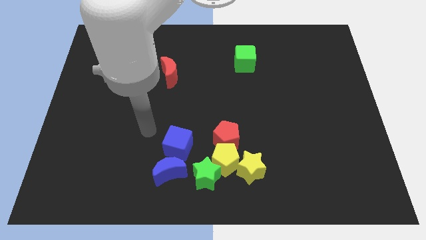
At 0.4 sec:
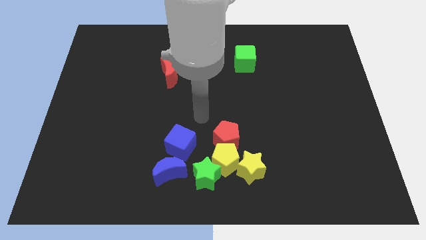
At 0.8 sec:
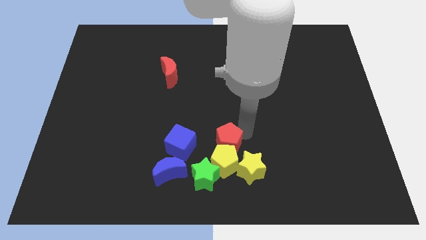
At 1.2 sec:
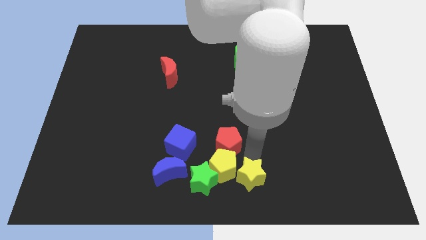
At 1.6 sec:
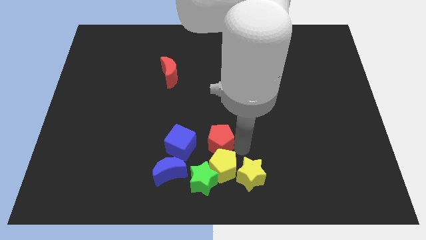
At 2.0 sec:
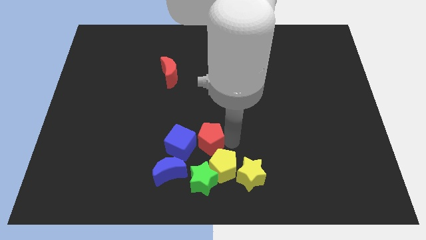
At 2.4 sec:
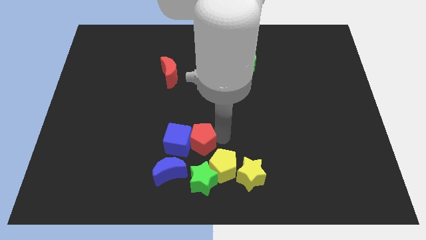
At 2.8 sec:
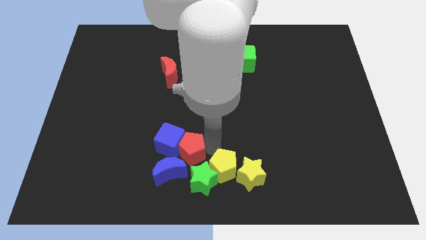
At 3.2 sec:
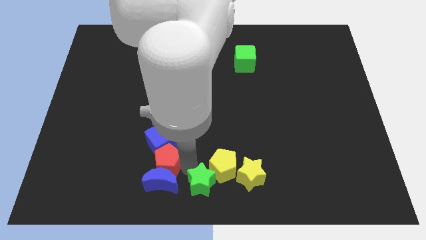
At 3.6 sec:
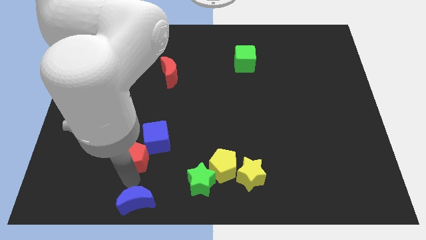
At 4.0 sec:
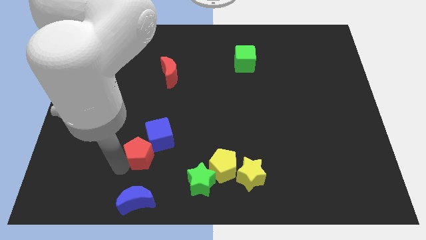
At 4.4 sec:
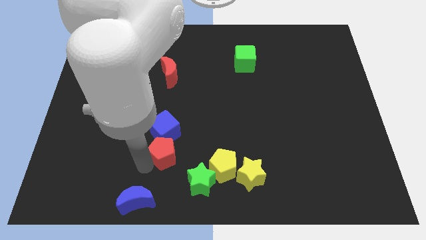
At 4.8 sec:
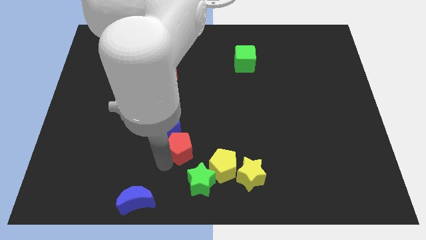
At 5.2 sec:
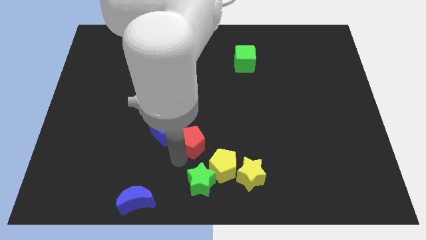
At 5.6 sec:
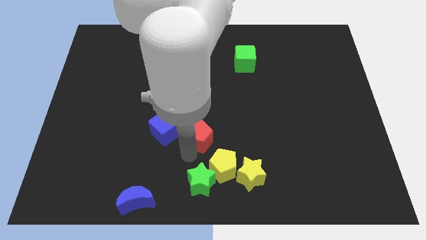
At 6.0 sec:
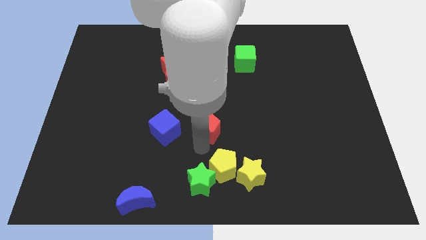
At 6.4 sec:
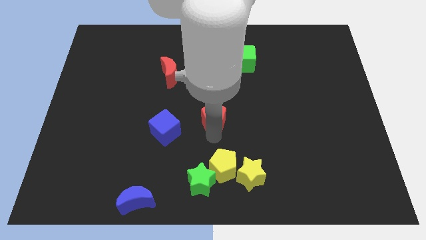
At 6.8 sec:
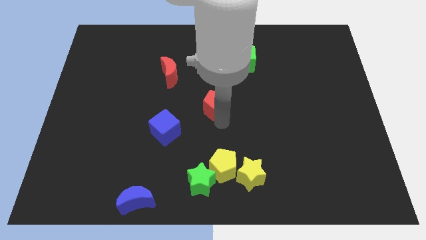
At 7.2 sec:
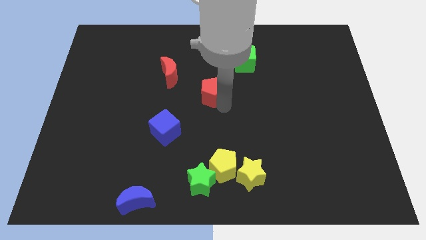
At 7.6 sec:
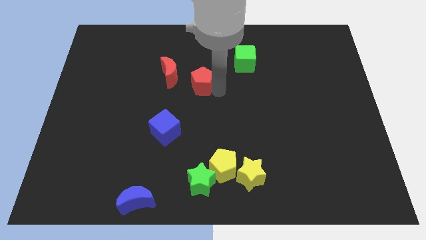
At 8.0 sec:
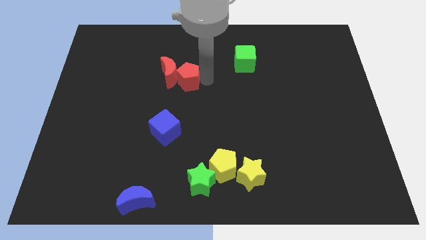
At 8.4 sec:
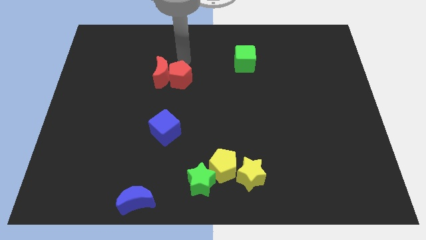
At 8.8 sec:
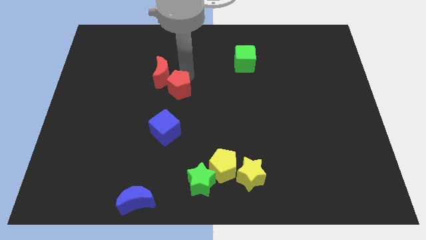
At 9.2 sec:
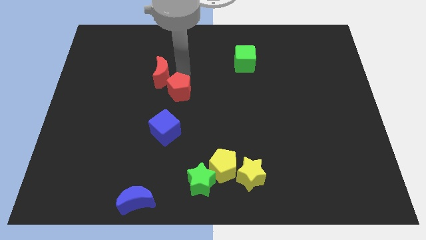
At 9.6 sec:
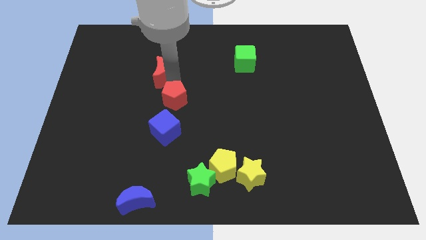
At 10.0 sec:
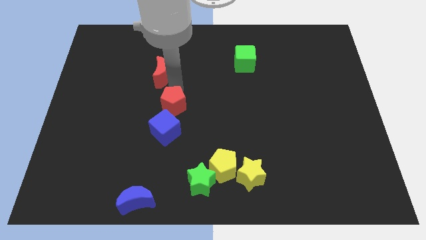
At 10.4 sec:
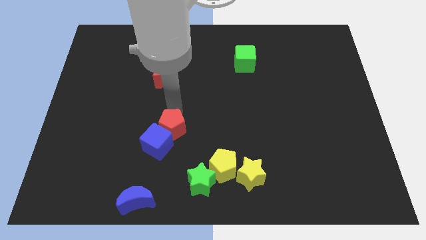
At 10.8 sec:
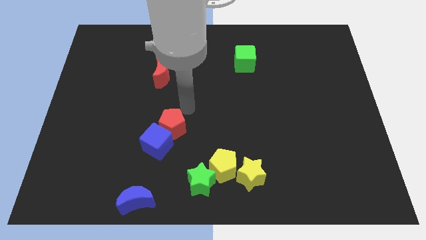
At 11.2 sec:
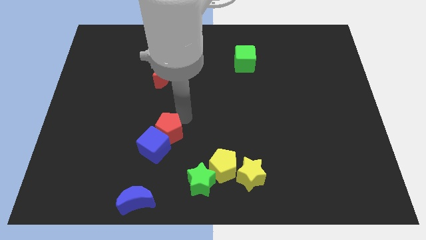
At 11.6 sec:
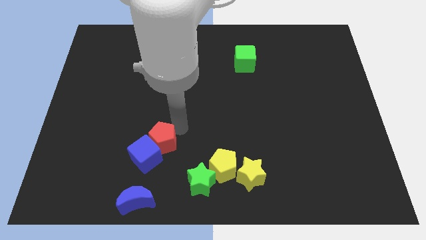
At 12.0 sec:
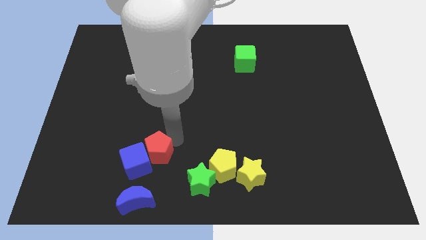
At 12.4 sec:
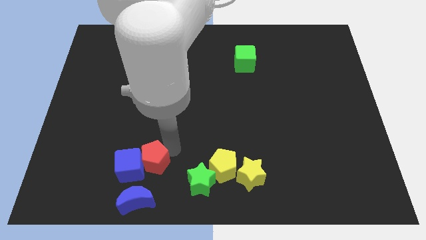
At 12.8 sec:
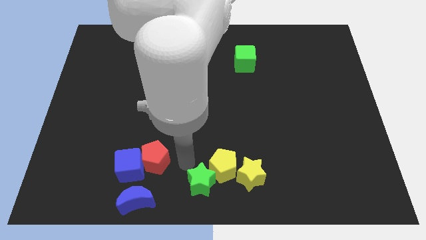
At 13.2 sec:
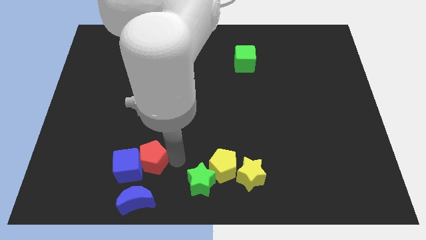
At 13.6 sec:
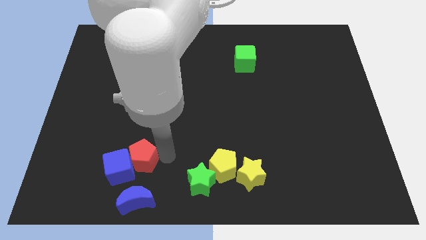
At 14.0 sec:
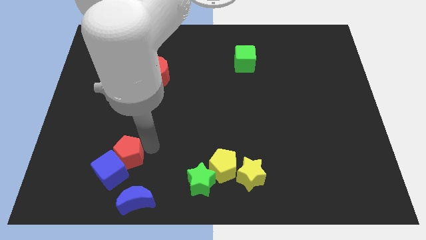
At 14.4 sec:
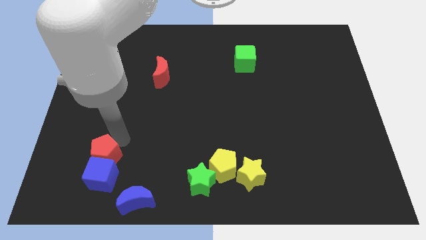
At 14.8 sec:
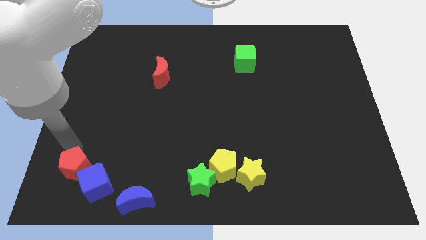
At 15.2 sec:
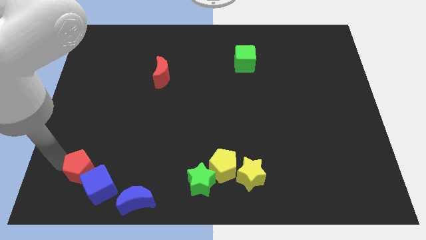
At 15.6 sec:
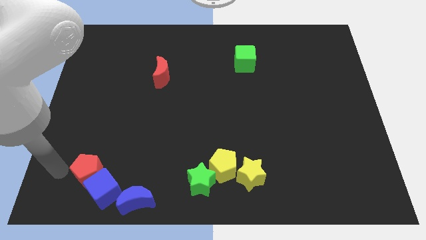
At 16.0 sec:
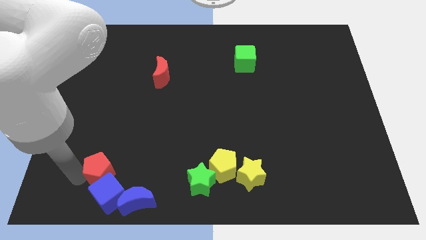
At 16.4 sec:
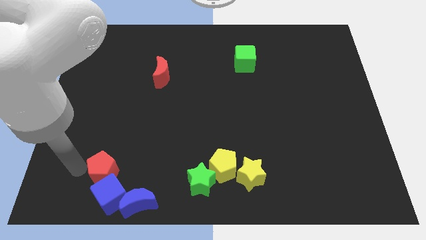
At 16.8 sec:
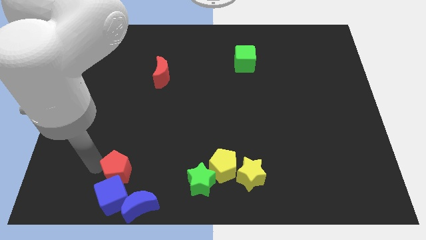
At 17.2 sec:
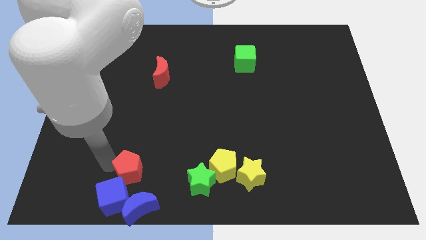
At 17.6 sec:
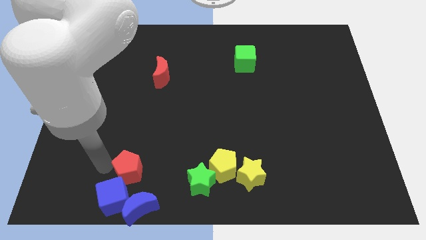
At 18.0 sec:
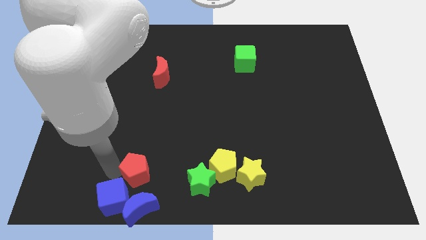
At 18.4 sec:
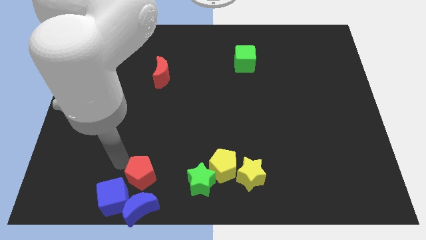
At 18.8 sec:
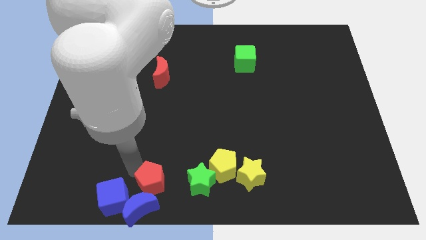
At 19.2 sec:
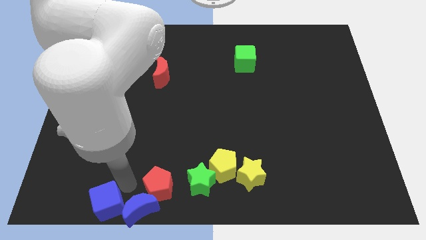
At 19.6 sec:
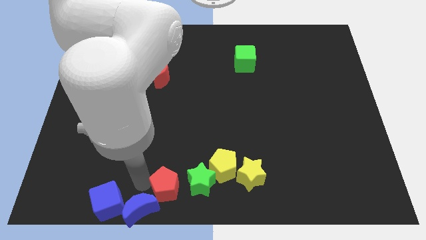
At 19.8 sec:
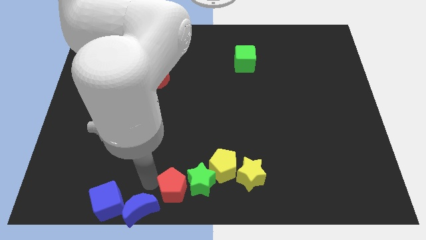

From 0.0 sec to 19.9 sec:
slide the red pentagon to the bottom left side of the yellow pentagon

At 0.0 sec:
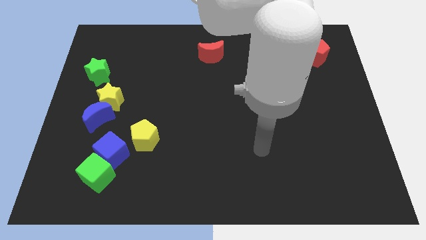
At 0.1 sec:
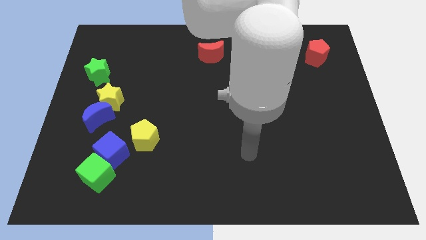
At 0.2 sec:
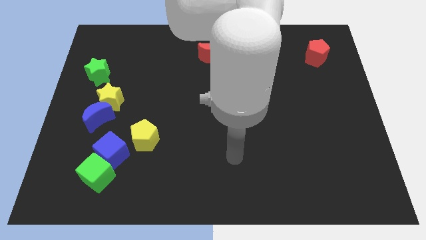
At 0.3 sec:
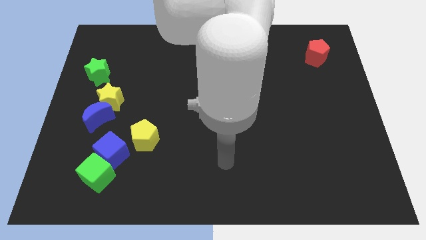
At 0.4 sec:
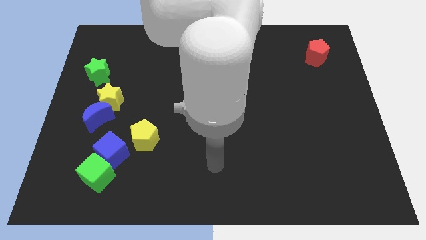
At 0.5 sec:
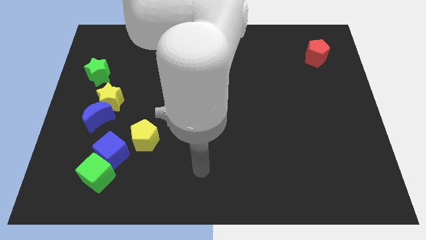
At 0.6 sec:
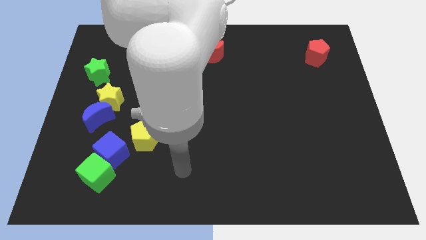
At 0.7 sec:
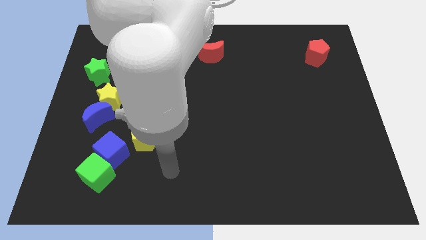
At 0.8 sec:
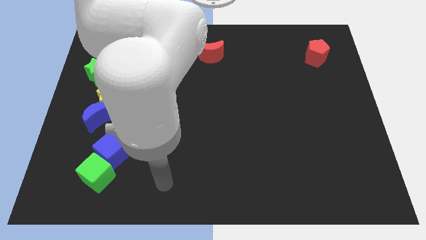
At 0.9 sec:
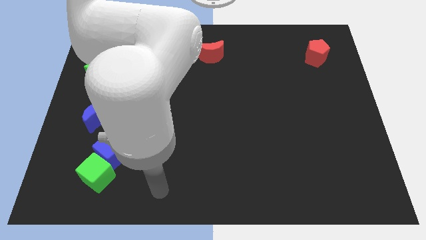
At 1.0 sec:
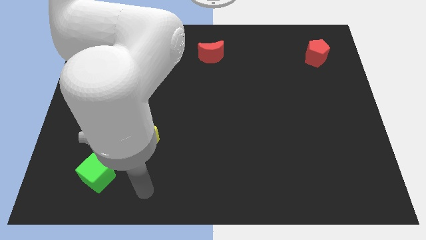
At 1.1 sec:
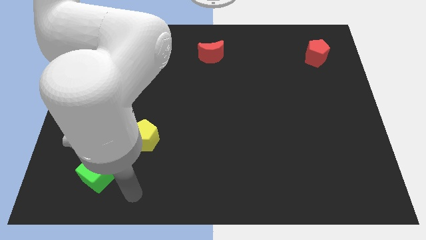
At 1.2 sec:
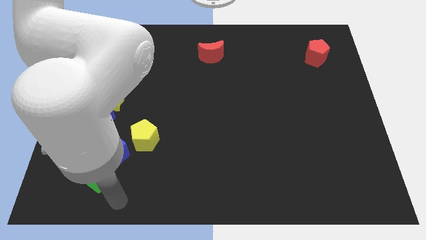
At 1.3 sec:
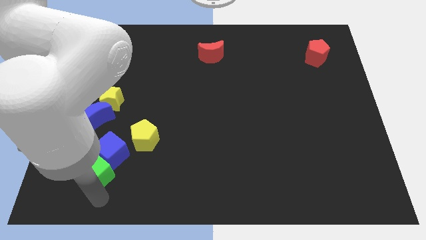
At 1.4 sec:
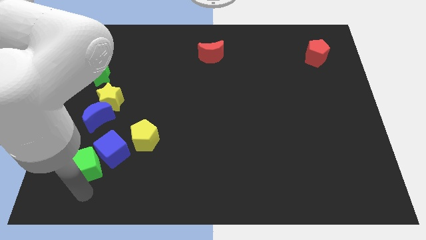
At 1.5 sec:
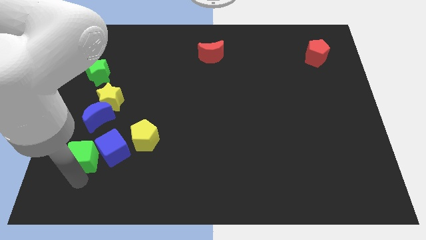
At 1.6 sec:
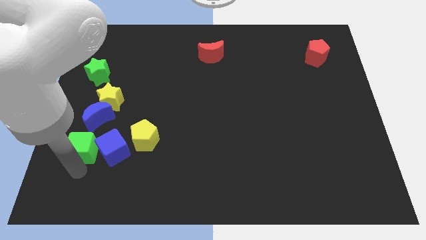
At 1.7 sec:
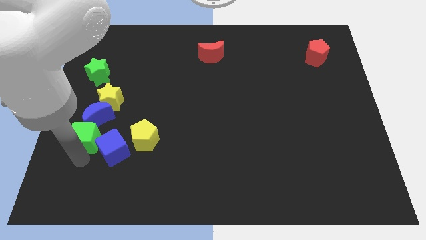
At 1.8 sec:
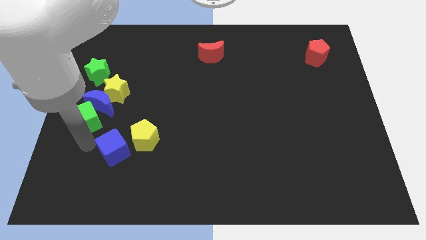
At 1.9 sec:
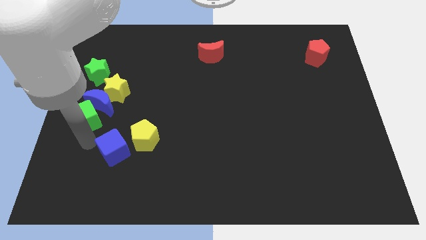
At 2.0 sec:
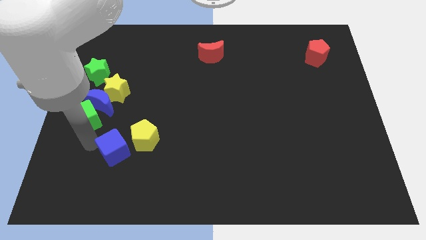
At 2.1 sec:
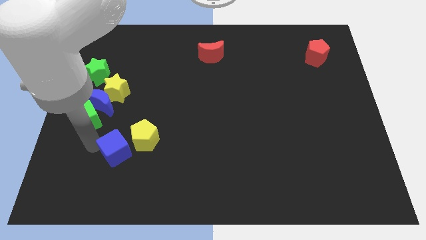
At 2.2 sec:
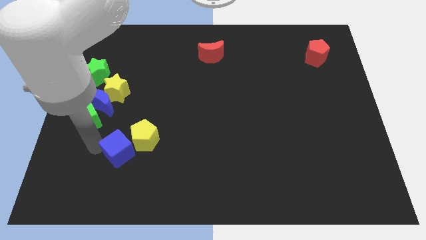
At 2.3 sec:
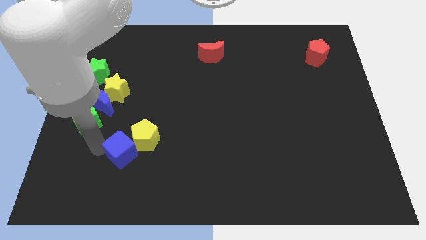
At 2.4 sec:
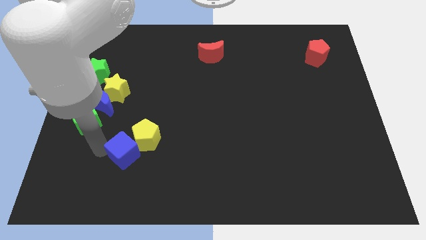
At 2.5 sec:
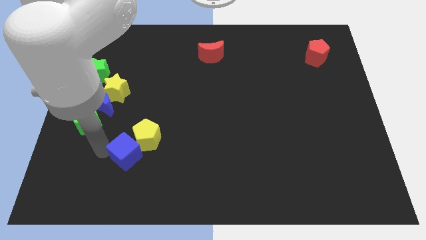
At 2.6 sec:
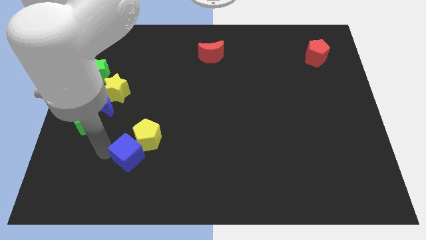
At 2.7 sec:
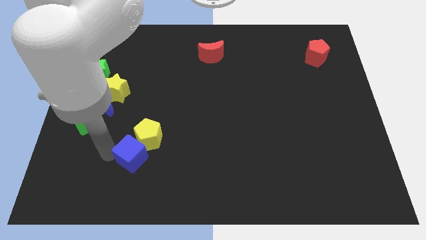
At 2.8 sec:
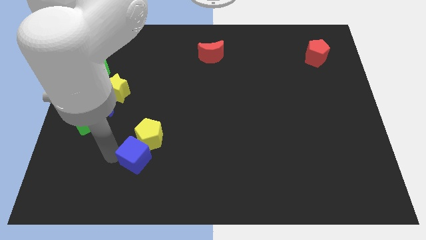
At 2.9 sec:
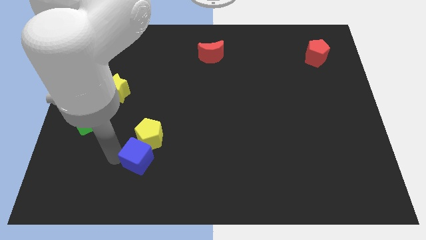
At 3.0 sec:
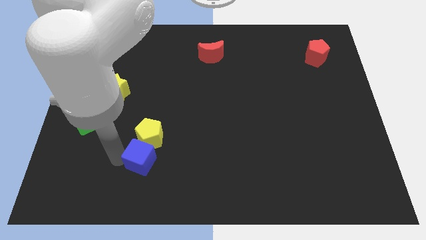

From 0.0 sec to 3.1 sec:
move the blue cube to the bottom right of the yellow pentagon
